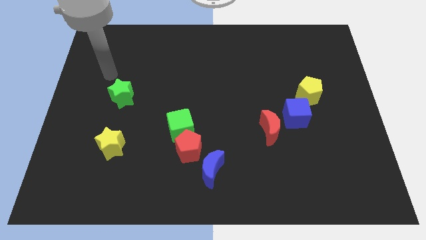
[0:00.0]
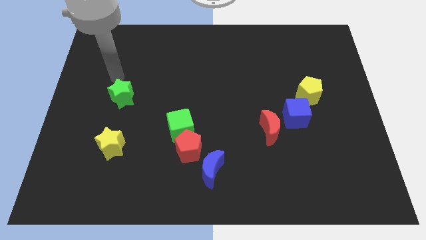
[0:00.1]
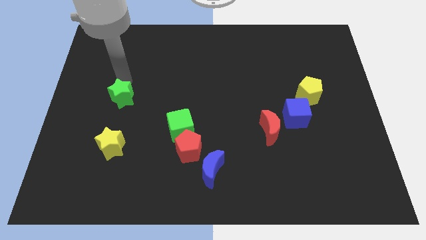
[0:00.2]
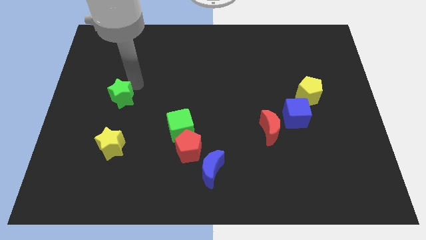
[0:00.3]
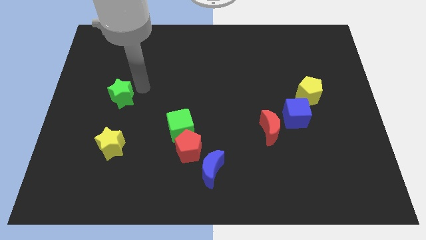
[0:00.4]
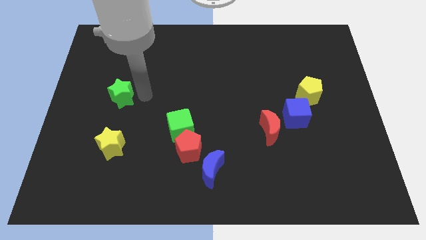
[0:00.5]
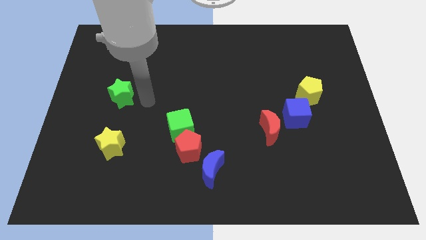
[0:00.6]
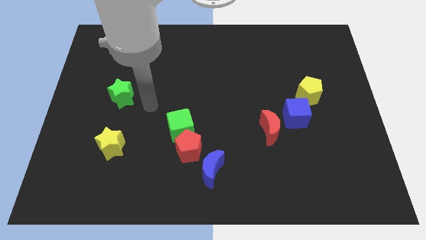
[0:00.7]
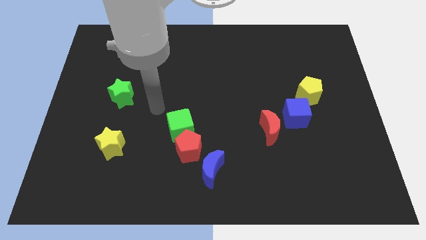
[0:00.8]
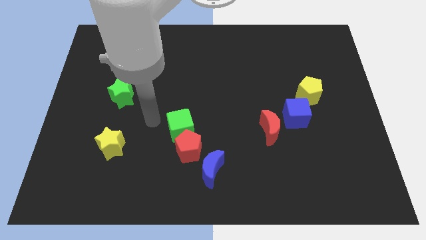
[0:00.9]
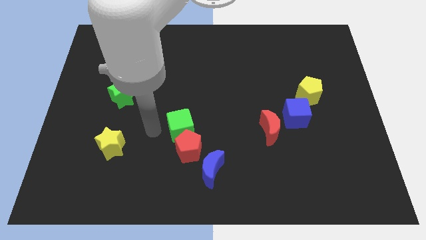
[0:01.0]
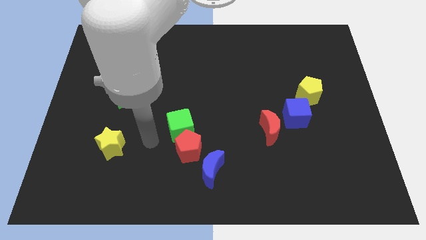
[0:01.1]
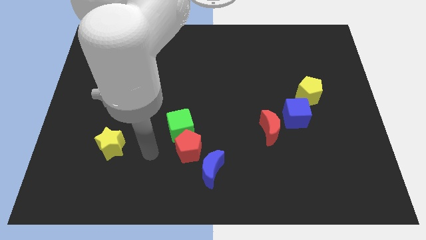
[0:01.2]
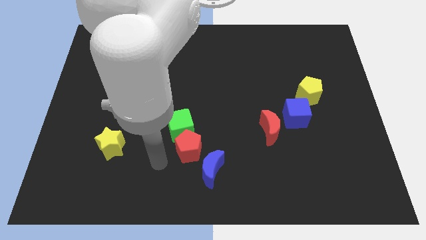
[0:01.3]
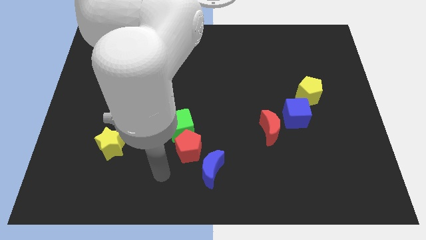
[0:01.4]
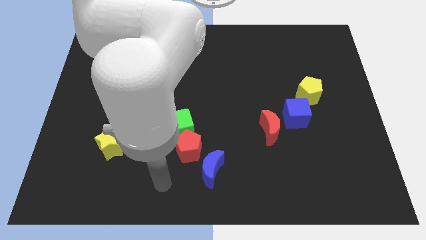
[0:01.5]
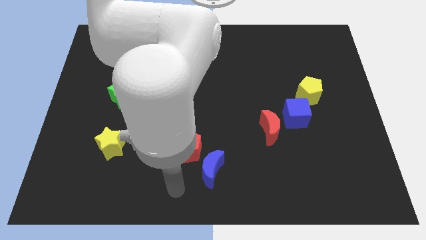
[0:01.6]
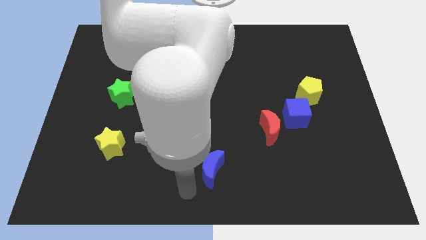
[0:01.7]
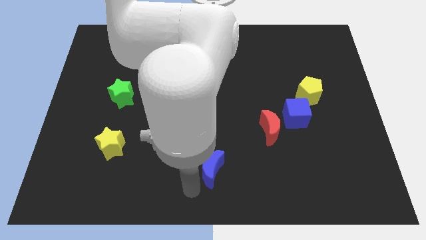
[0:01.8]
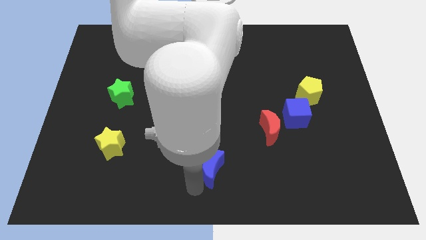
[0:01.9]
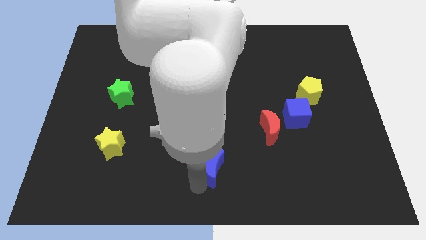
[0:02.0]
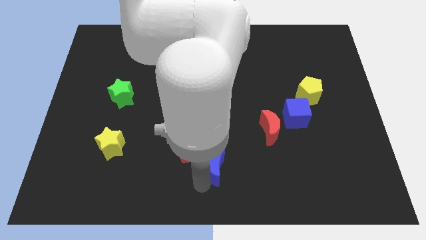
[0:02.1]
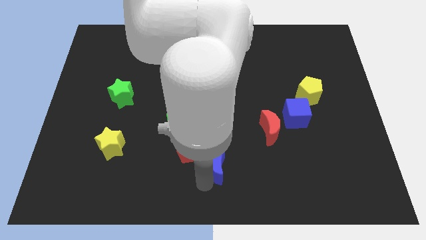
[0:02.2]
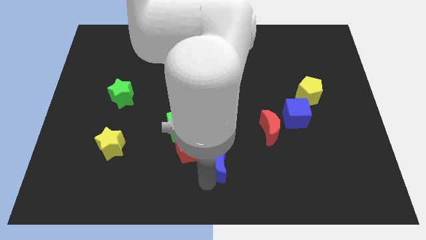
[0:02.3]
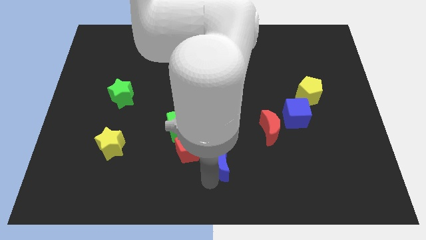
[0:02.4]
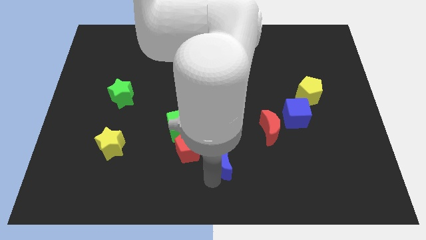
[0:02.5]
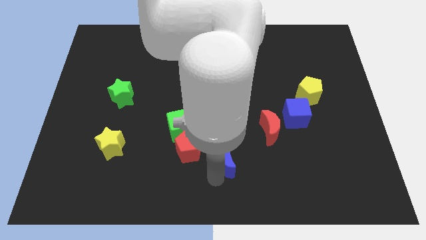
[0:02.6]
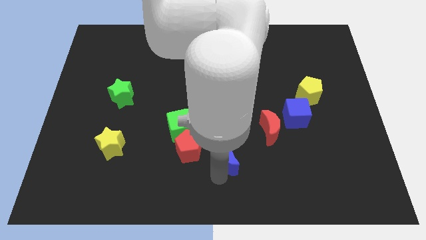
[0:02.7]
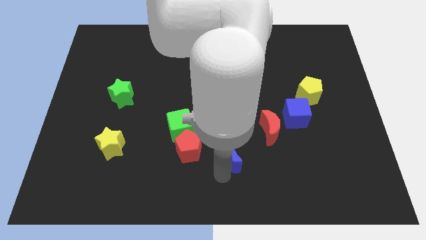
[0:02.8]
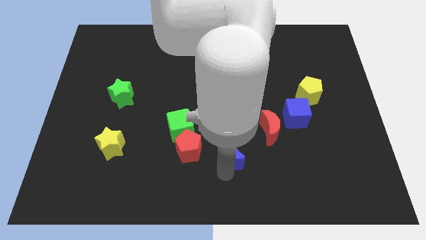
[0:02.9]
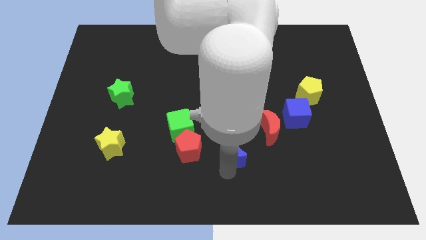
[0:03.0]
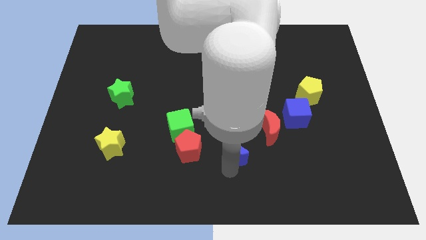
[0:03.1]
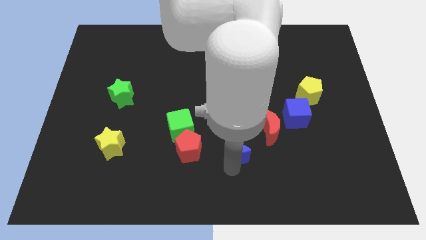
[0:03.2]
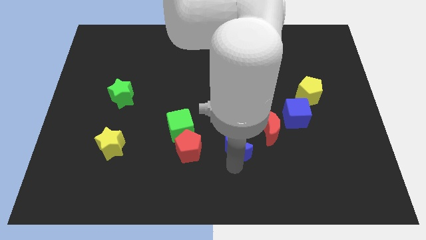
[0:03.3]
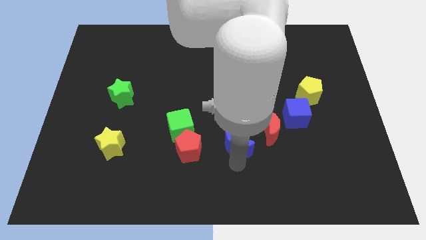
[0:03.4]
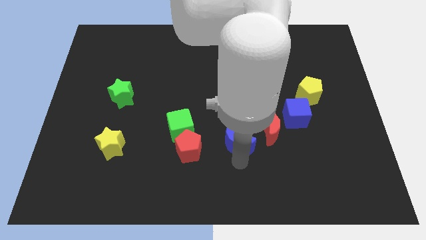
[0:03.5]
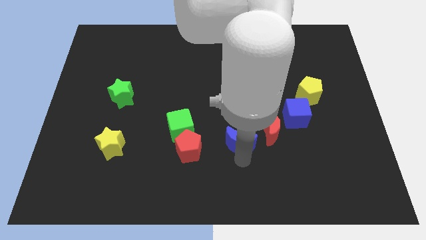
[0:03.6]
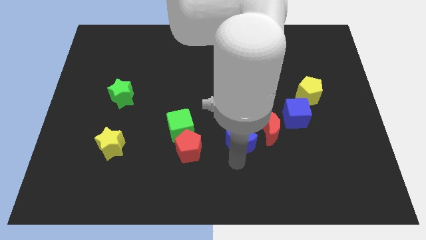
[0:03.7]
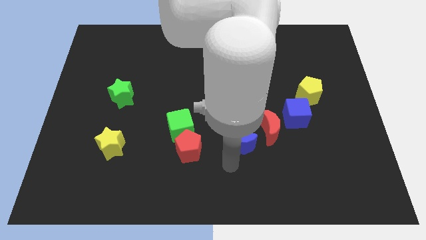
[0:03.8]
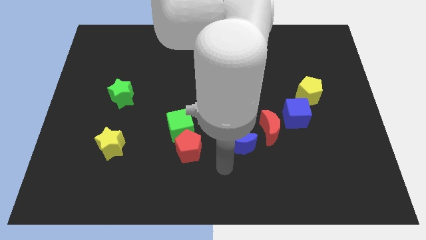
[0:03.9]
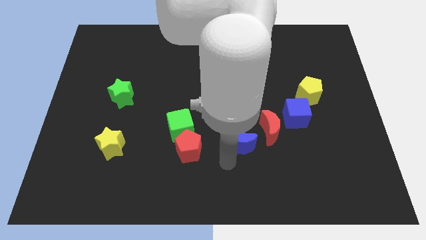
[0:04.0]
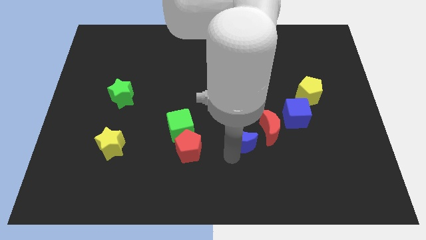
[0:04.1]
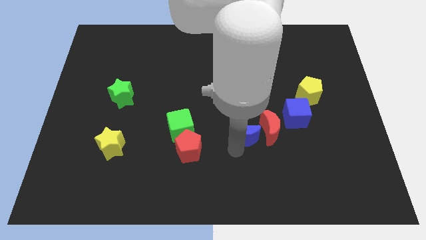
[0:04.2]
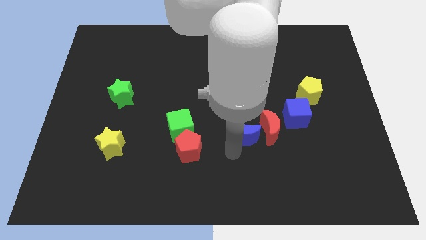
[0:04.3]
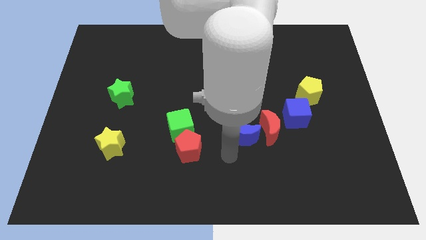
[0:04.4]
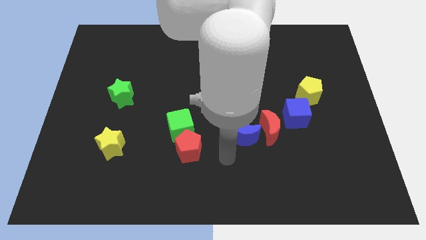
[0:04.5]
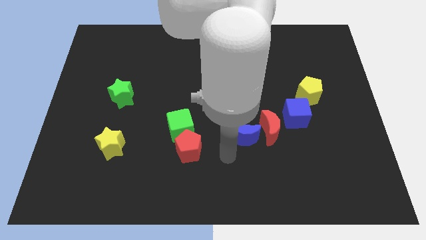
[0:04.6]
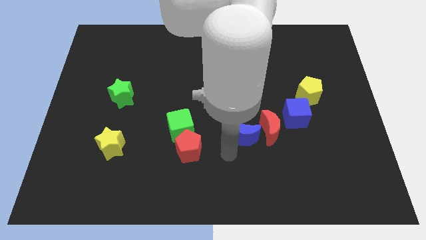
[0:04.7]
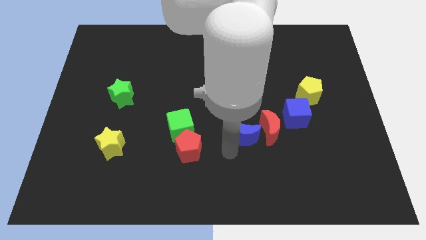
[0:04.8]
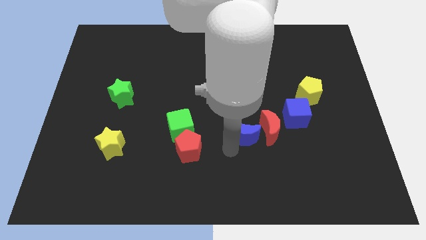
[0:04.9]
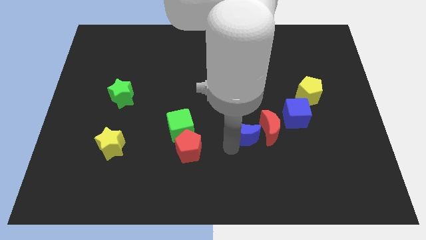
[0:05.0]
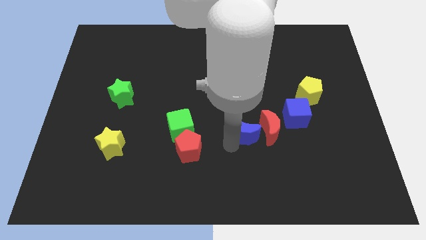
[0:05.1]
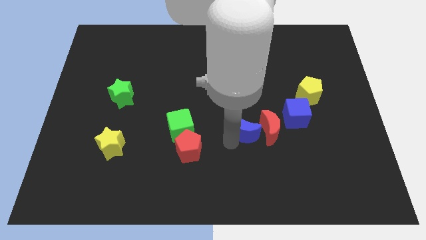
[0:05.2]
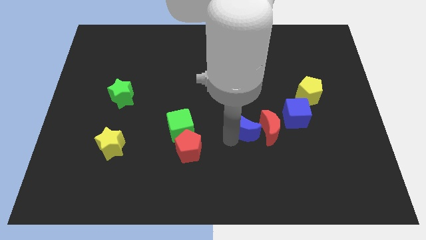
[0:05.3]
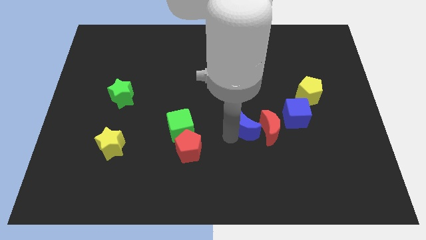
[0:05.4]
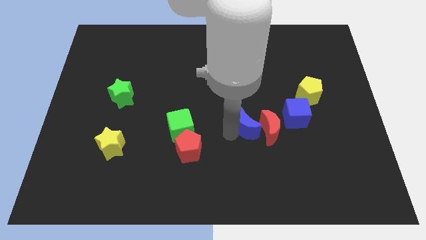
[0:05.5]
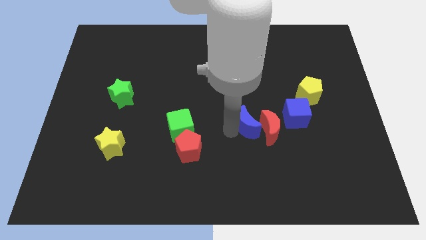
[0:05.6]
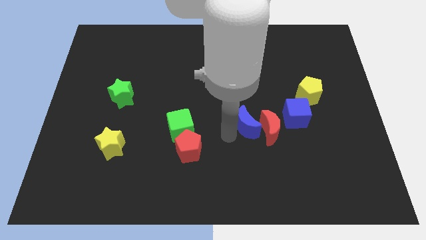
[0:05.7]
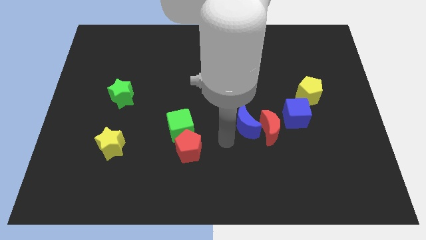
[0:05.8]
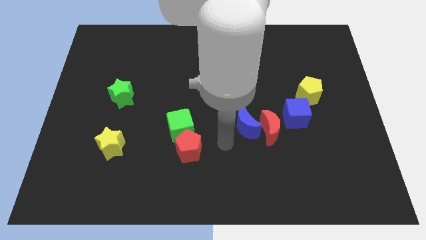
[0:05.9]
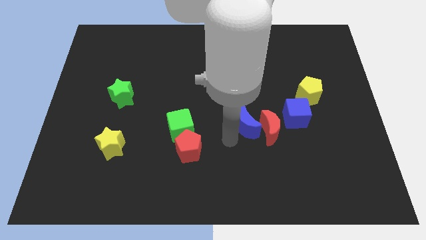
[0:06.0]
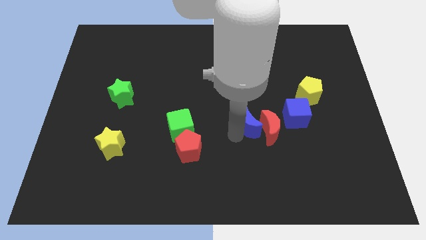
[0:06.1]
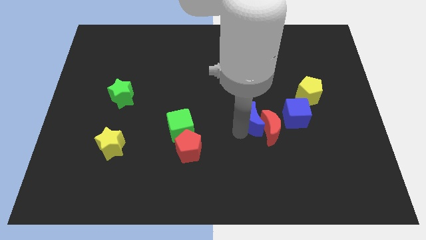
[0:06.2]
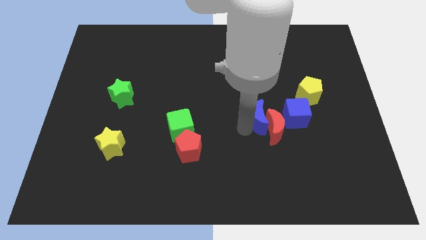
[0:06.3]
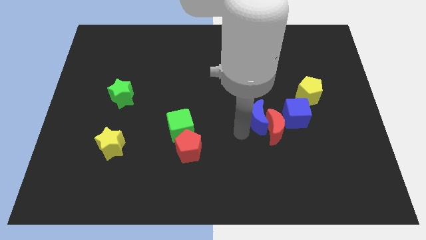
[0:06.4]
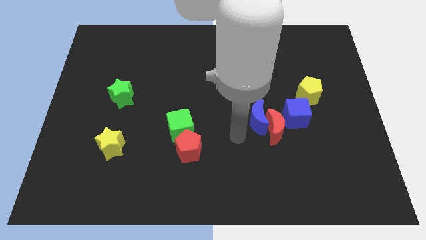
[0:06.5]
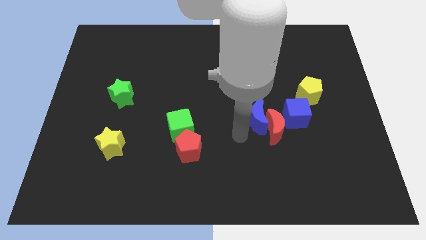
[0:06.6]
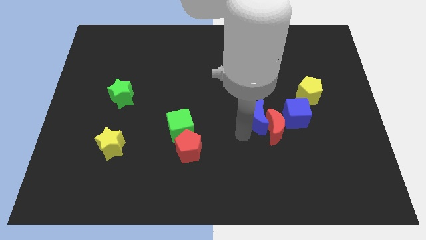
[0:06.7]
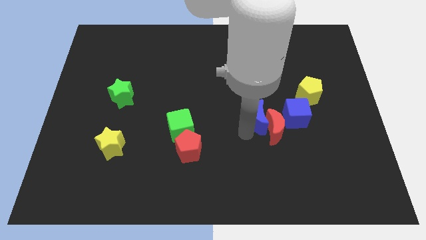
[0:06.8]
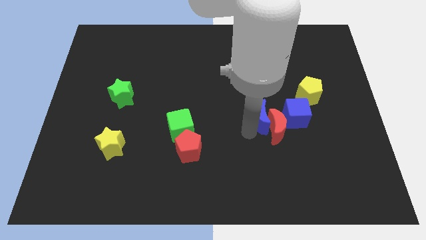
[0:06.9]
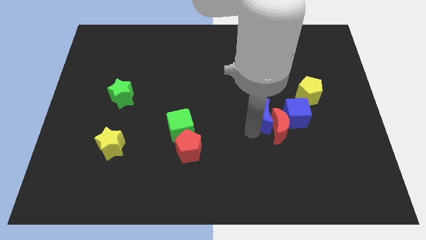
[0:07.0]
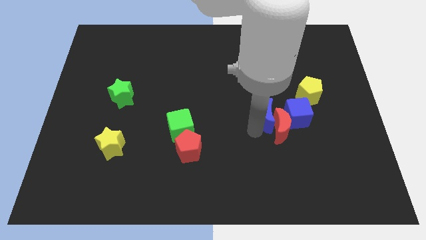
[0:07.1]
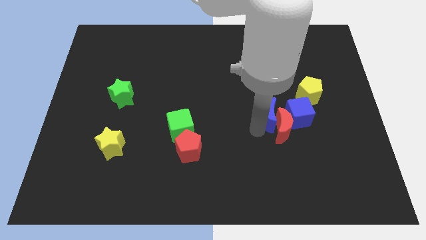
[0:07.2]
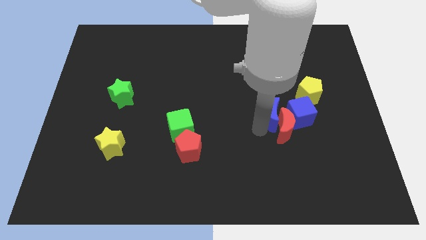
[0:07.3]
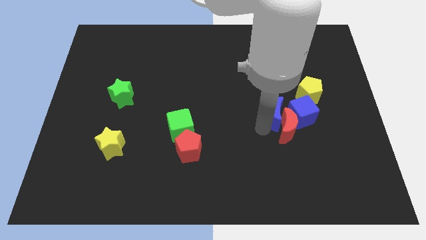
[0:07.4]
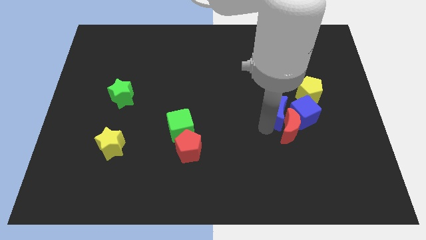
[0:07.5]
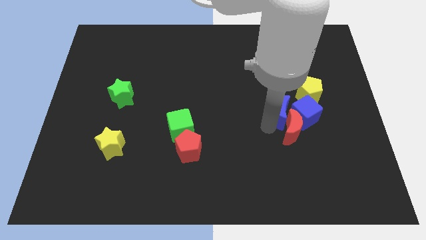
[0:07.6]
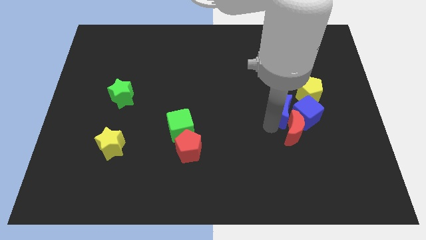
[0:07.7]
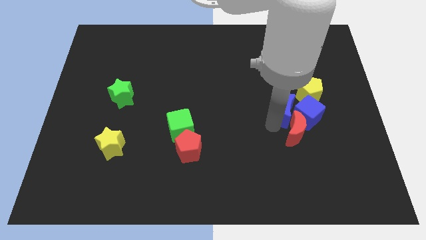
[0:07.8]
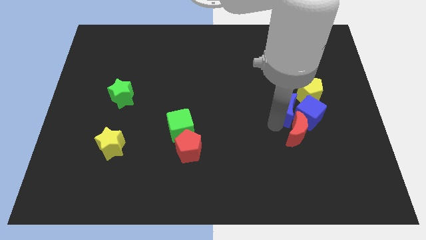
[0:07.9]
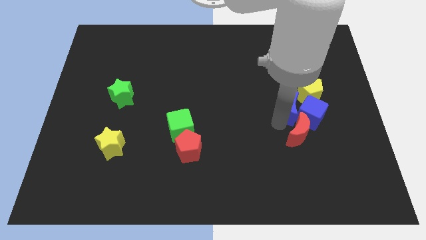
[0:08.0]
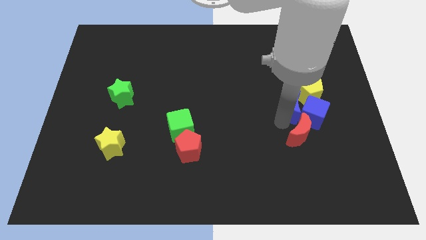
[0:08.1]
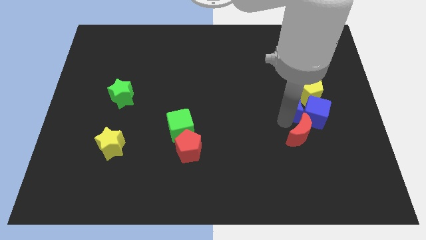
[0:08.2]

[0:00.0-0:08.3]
put the blue moon to the yellow pentagon
